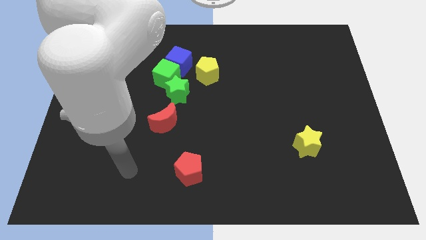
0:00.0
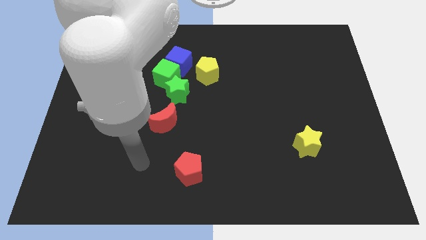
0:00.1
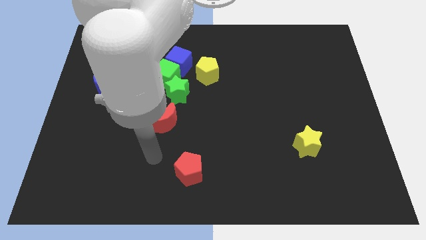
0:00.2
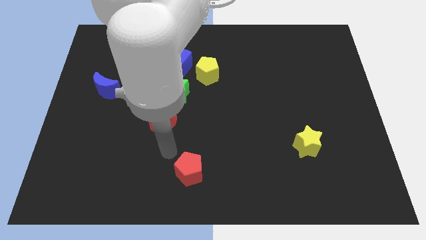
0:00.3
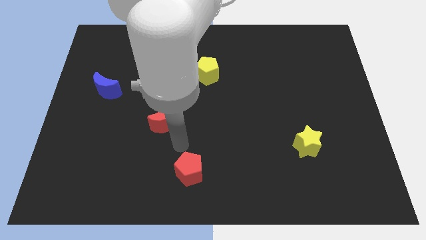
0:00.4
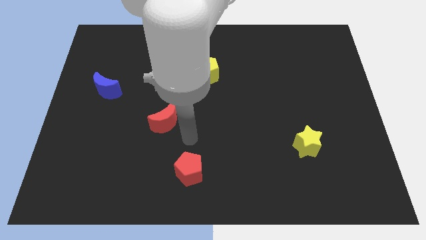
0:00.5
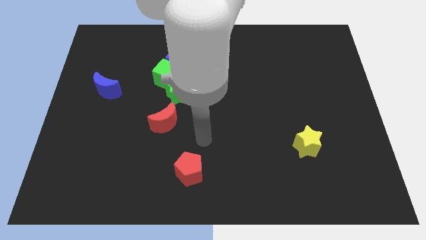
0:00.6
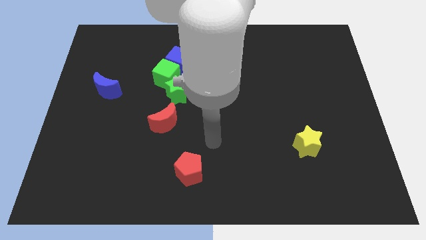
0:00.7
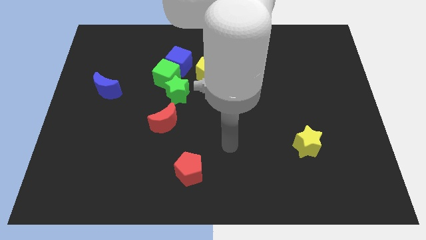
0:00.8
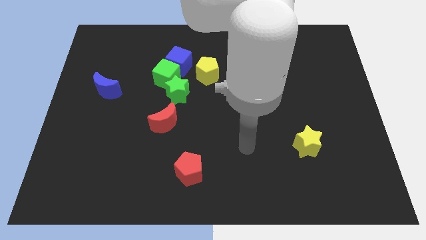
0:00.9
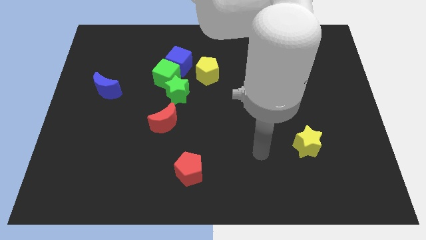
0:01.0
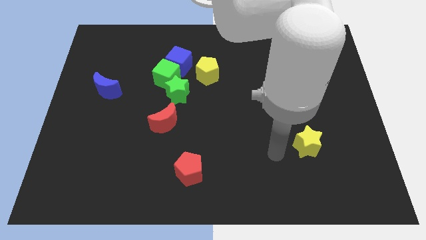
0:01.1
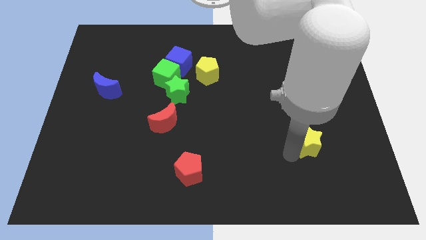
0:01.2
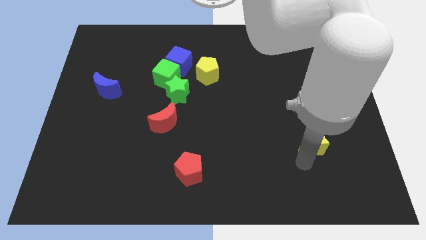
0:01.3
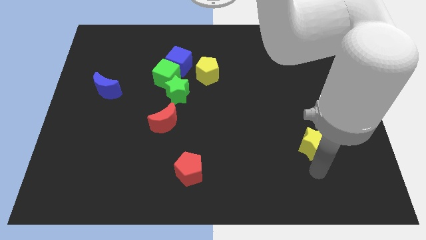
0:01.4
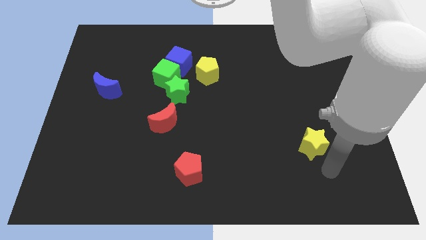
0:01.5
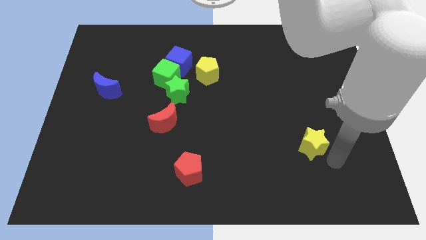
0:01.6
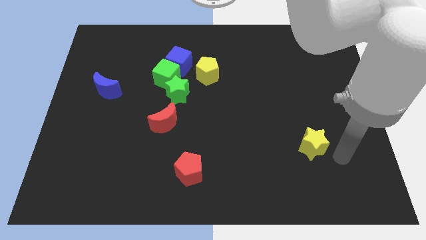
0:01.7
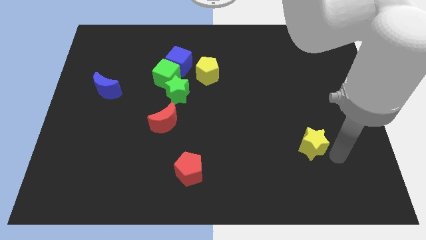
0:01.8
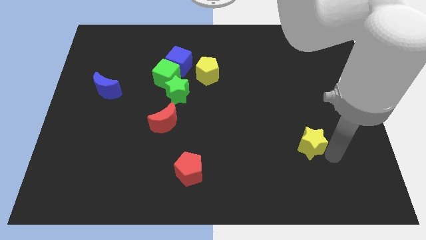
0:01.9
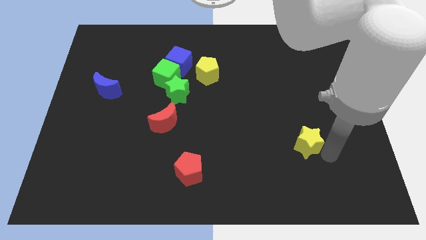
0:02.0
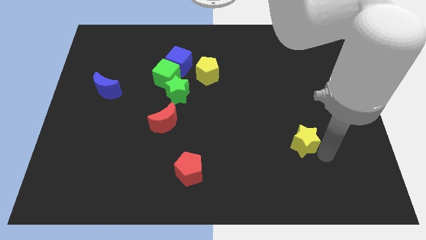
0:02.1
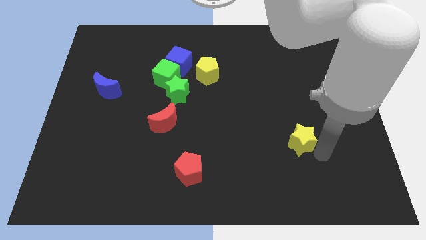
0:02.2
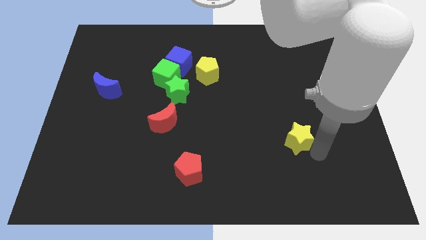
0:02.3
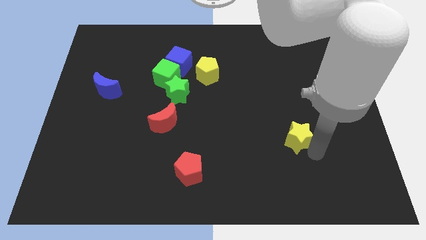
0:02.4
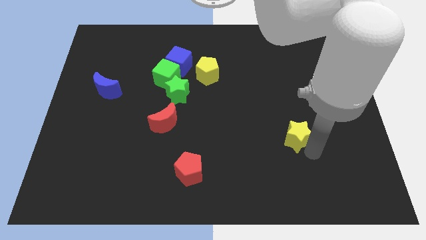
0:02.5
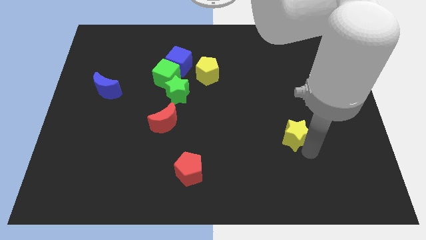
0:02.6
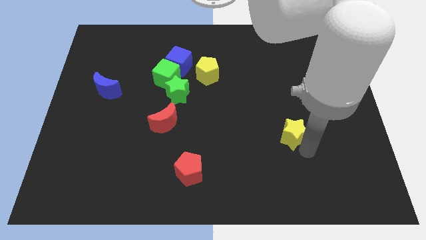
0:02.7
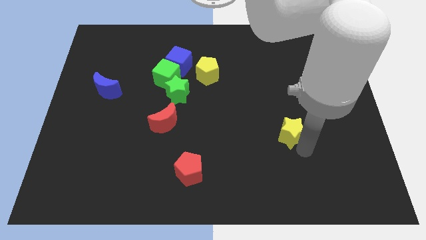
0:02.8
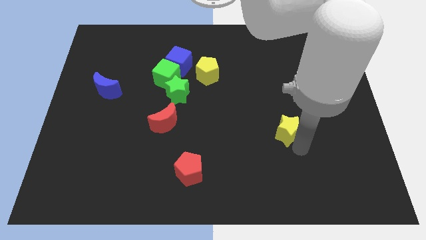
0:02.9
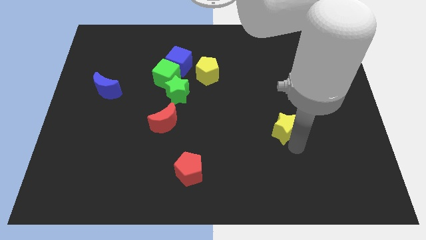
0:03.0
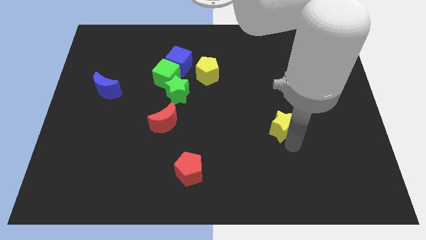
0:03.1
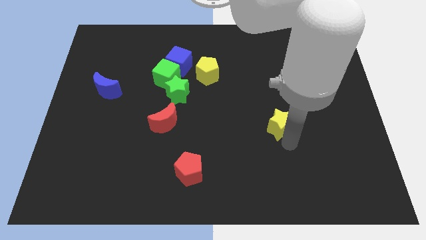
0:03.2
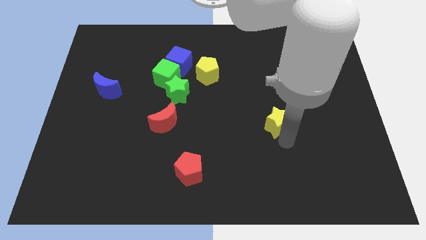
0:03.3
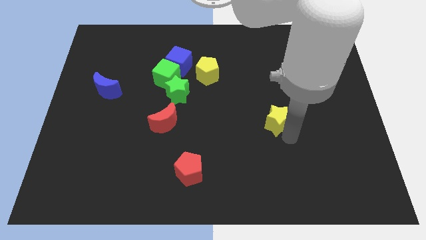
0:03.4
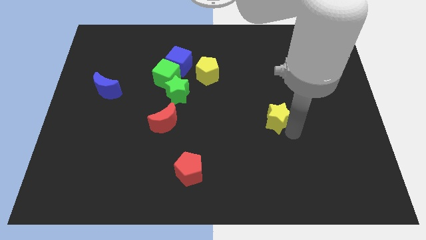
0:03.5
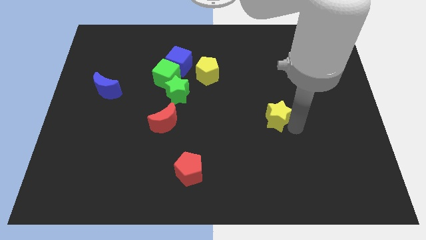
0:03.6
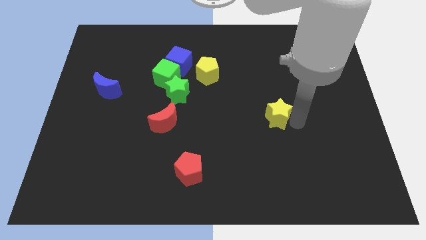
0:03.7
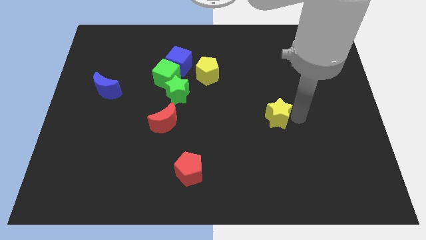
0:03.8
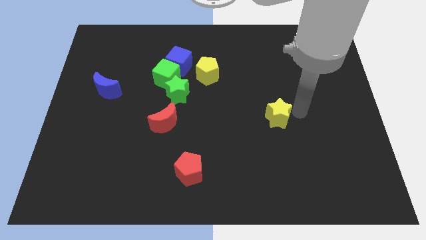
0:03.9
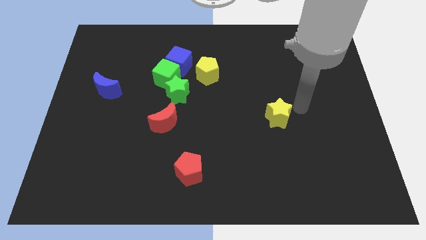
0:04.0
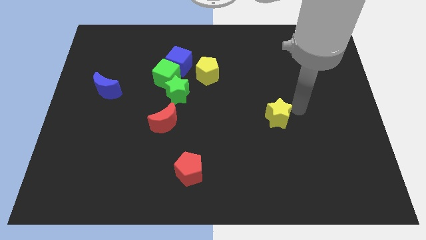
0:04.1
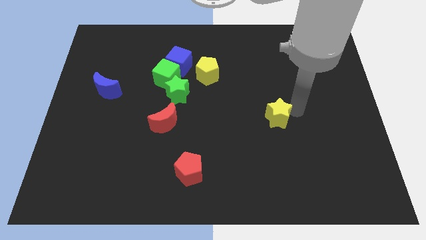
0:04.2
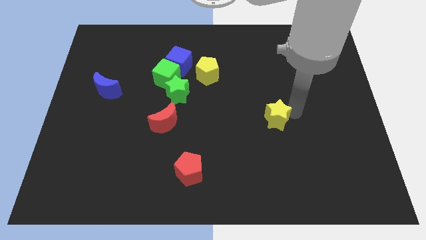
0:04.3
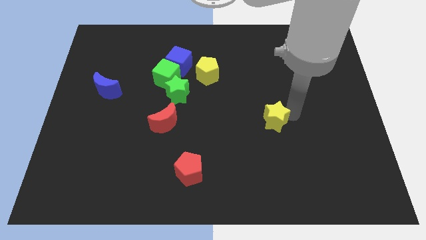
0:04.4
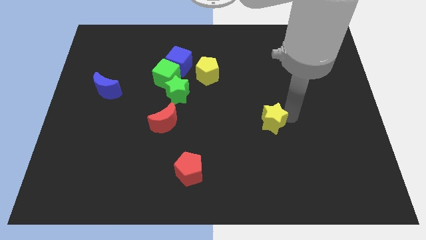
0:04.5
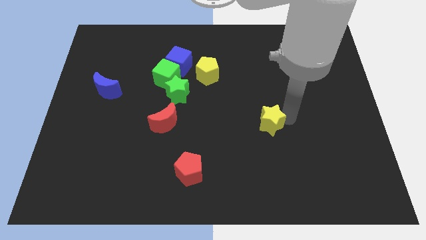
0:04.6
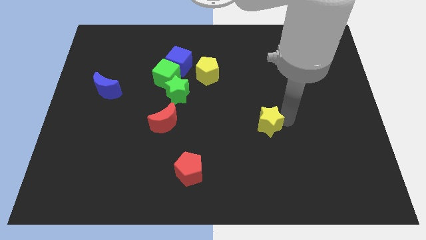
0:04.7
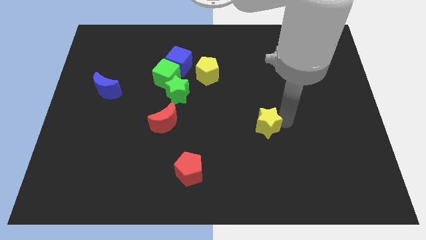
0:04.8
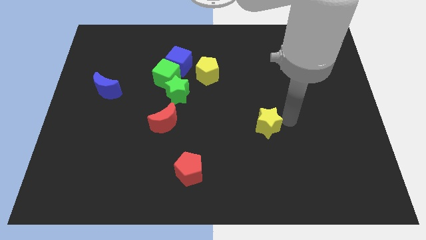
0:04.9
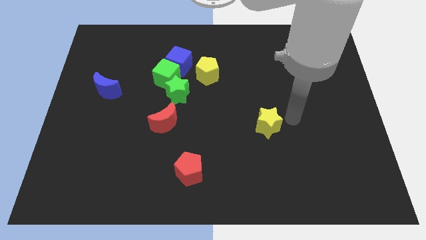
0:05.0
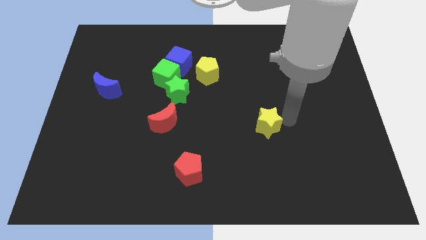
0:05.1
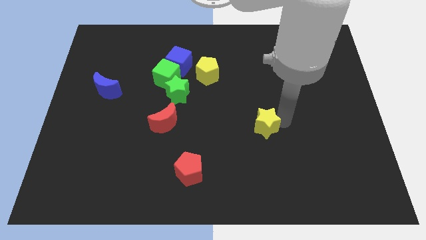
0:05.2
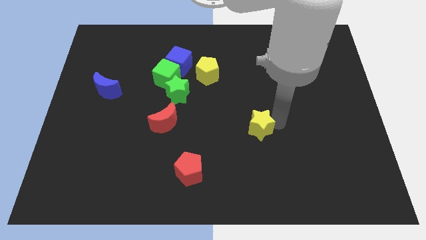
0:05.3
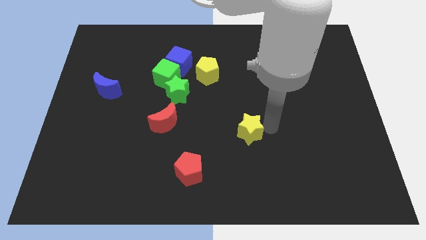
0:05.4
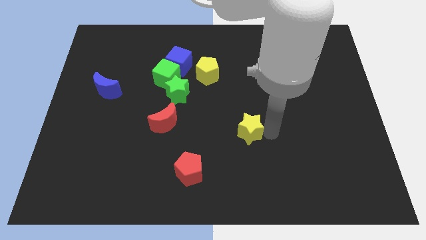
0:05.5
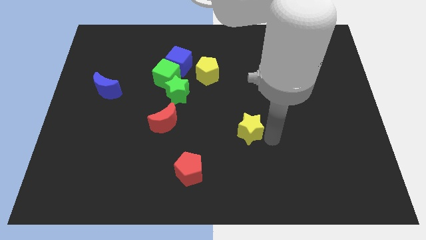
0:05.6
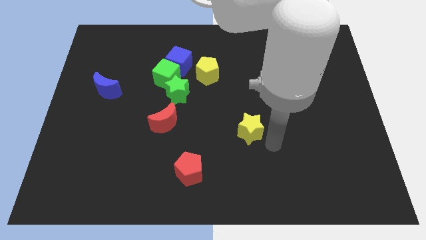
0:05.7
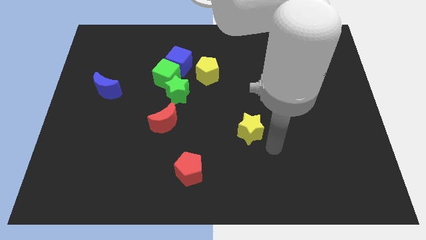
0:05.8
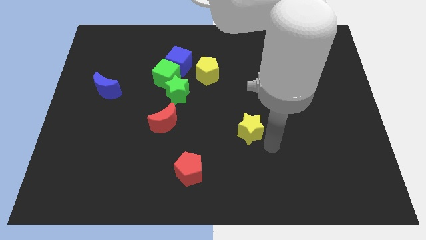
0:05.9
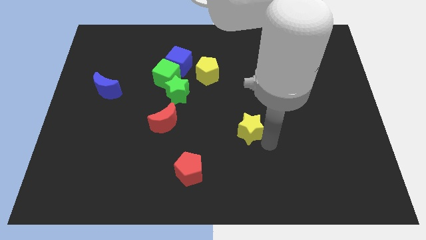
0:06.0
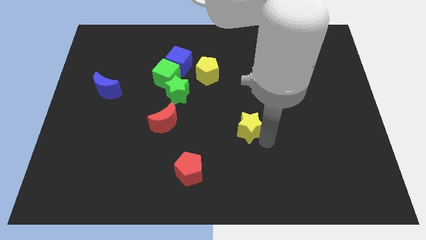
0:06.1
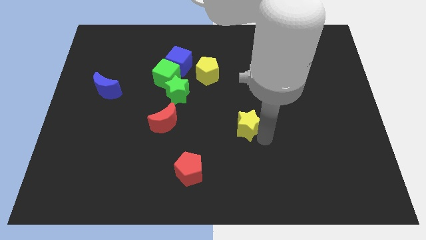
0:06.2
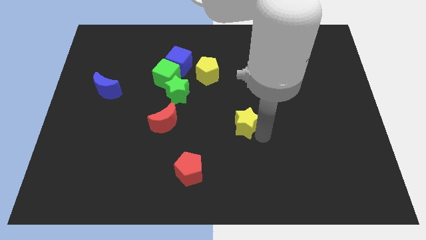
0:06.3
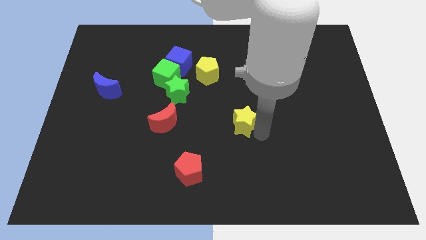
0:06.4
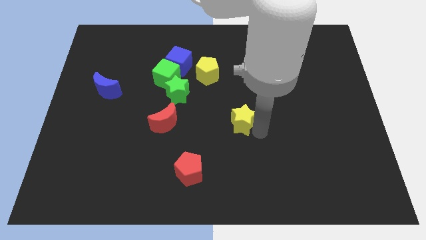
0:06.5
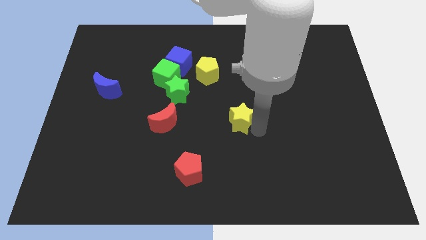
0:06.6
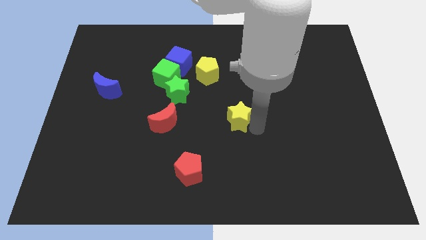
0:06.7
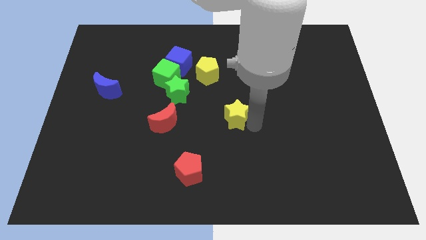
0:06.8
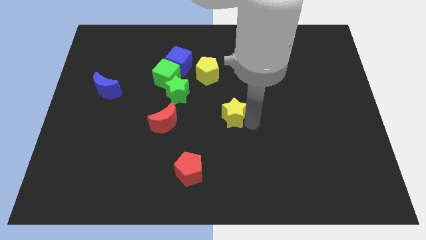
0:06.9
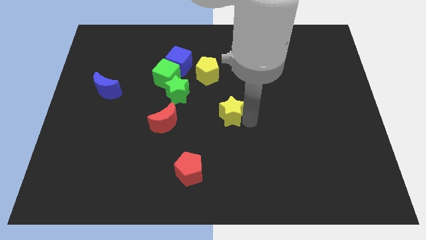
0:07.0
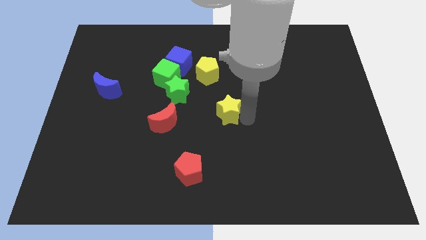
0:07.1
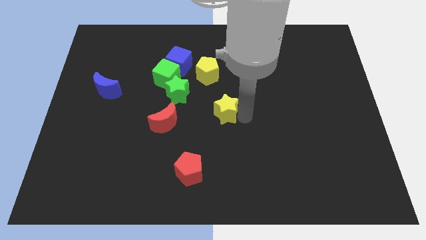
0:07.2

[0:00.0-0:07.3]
put the yellow star below the yellow pentagon
